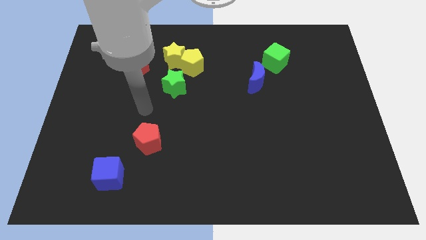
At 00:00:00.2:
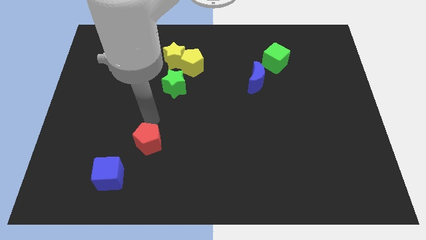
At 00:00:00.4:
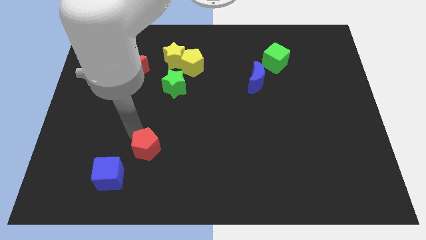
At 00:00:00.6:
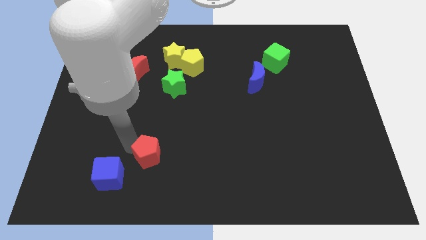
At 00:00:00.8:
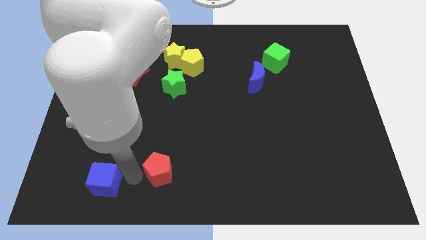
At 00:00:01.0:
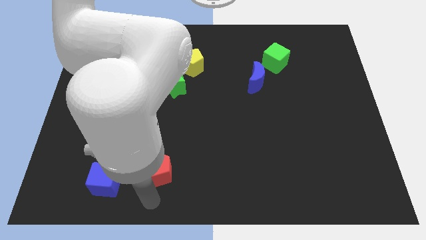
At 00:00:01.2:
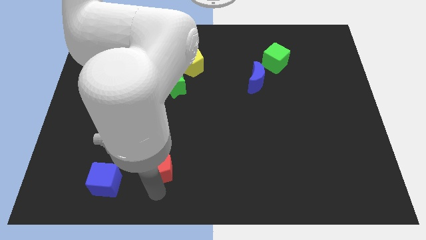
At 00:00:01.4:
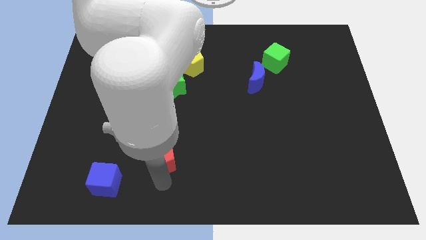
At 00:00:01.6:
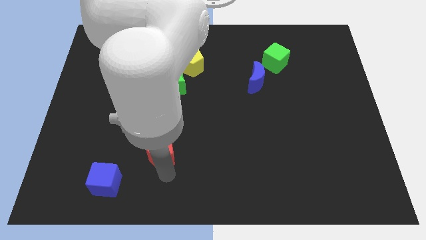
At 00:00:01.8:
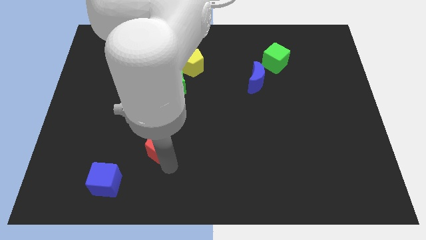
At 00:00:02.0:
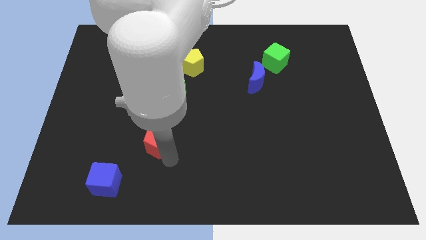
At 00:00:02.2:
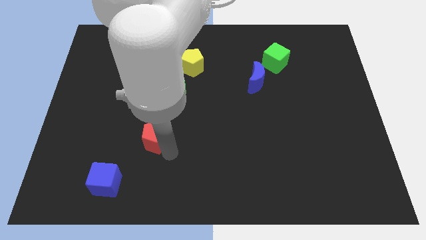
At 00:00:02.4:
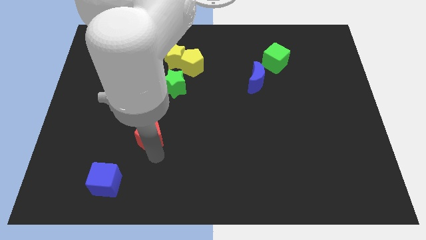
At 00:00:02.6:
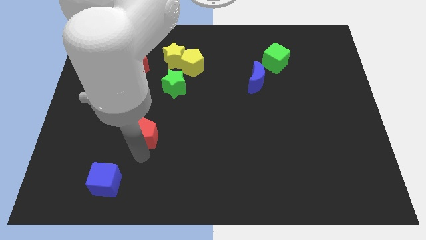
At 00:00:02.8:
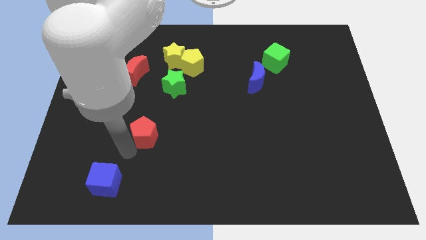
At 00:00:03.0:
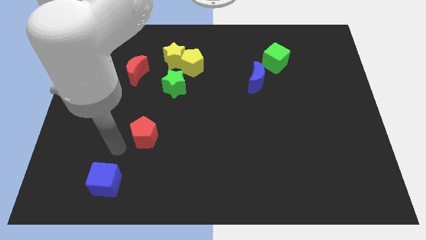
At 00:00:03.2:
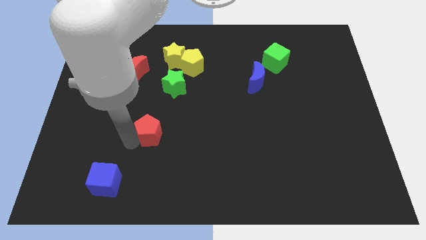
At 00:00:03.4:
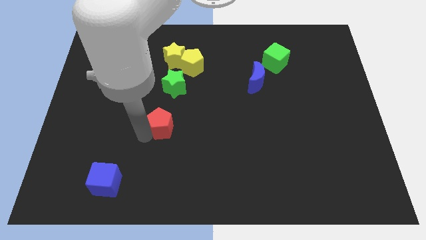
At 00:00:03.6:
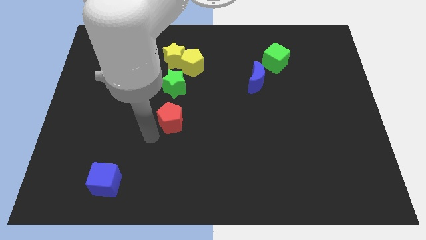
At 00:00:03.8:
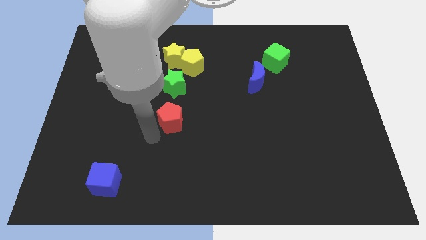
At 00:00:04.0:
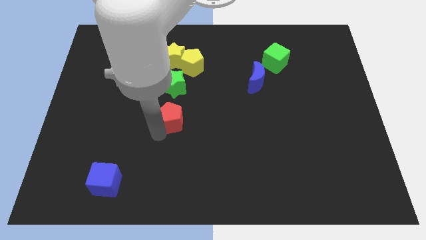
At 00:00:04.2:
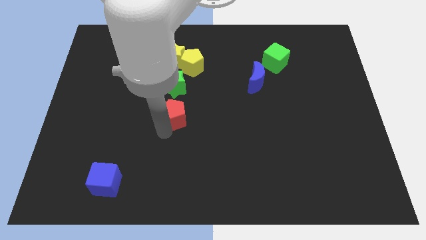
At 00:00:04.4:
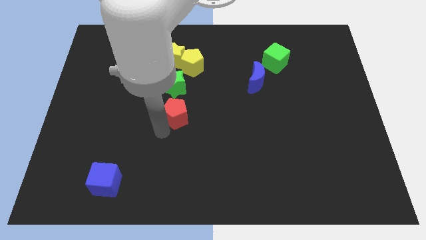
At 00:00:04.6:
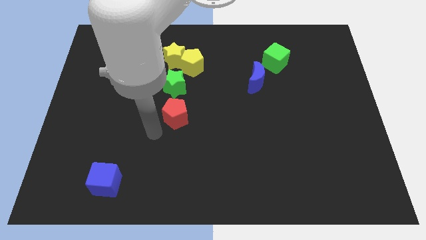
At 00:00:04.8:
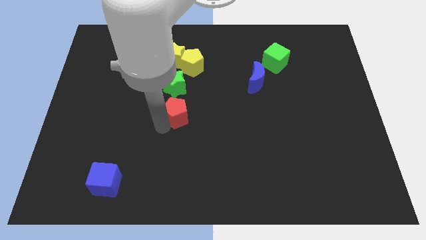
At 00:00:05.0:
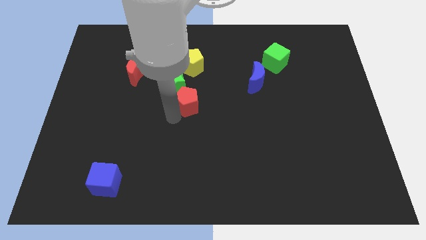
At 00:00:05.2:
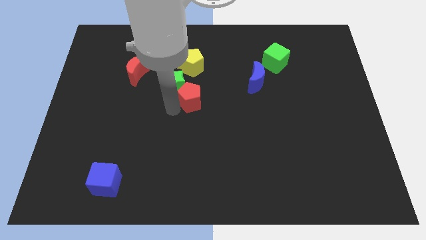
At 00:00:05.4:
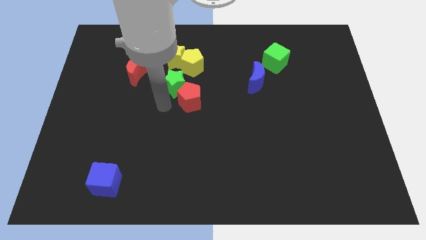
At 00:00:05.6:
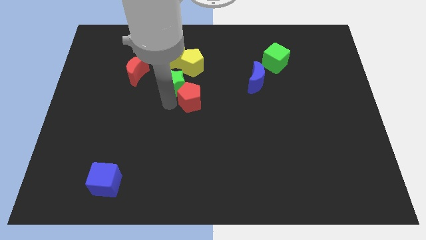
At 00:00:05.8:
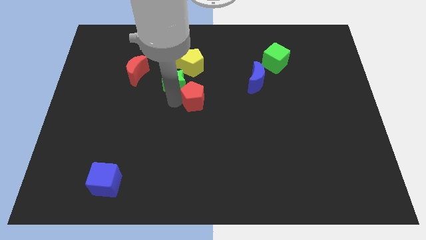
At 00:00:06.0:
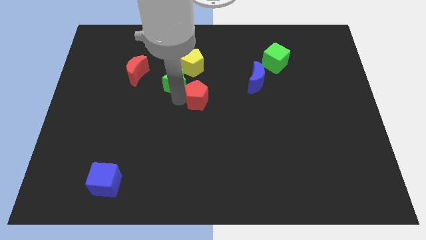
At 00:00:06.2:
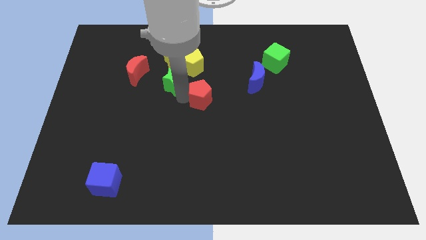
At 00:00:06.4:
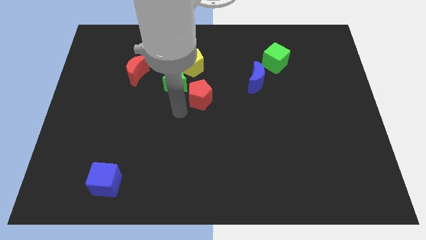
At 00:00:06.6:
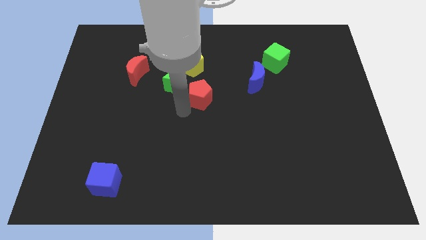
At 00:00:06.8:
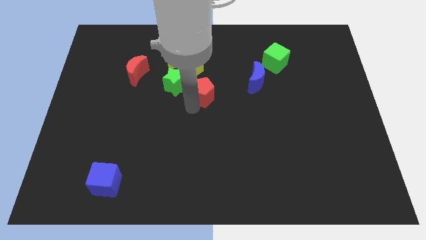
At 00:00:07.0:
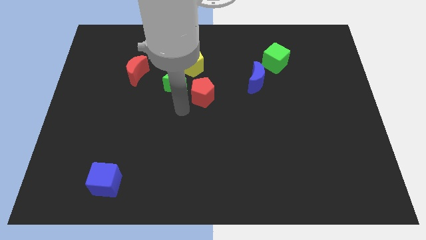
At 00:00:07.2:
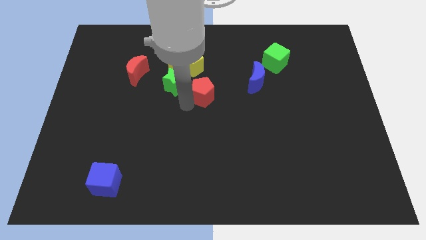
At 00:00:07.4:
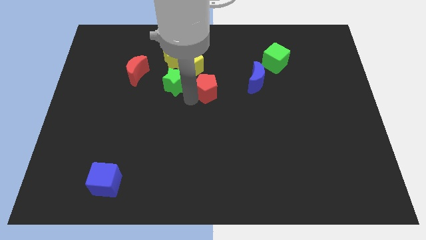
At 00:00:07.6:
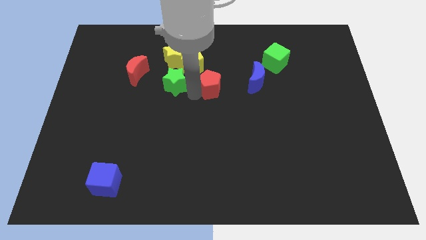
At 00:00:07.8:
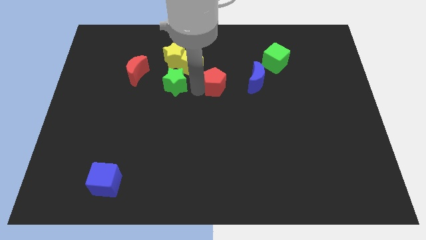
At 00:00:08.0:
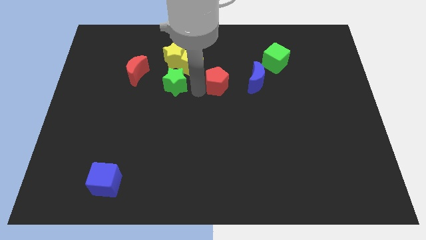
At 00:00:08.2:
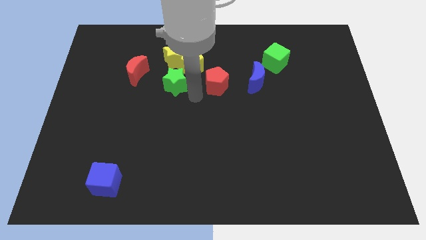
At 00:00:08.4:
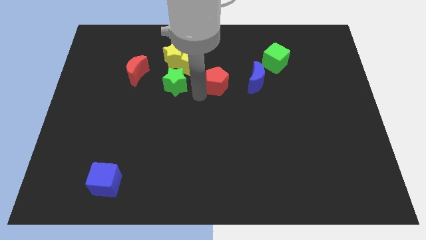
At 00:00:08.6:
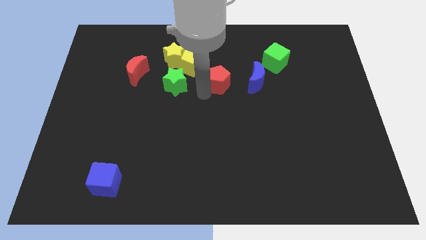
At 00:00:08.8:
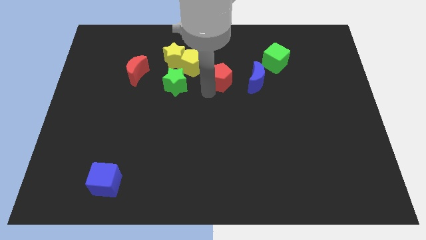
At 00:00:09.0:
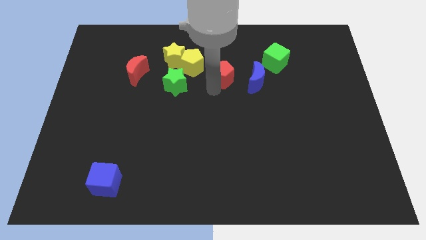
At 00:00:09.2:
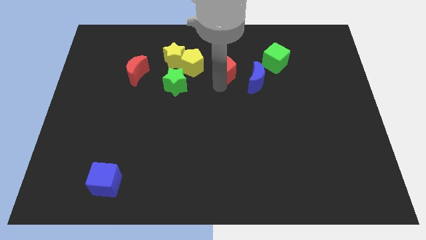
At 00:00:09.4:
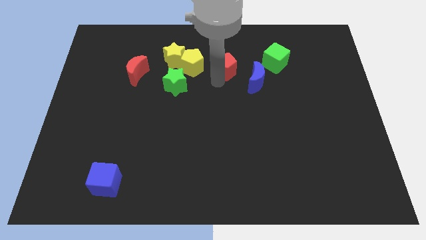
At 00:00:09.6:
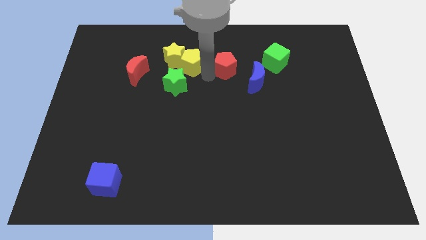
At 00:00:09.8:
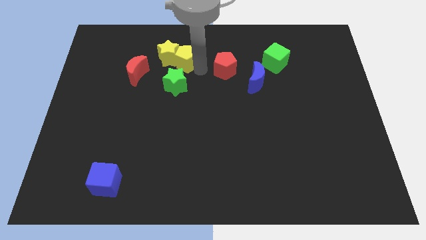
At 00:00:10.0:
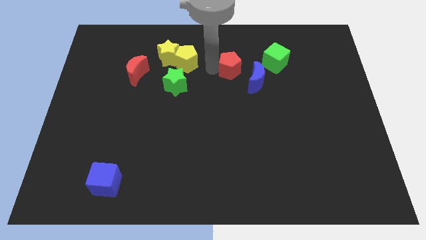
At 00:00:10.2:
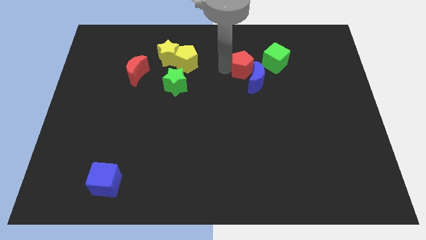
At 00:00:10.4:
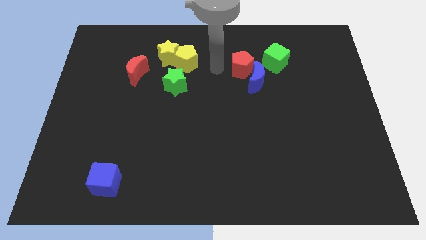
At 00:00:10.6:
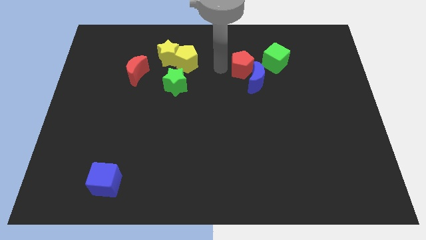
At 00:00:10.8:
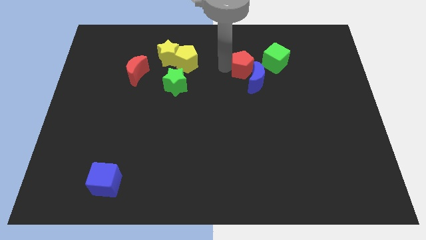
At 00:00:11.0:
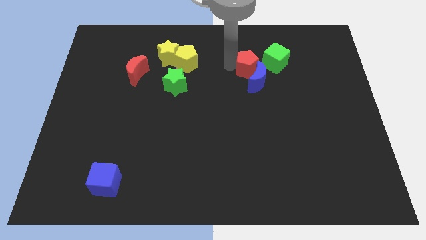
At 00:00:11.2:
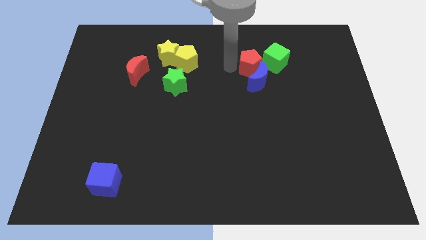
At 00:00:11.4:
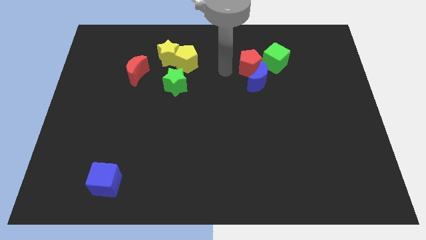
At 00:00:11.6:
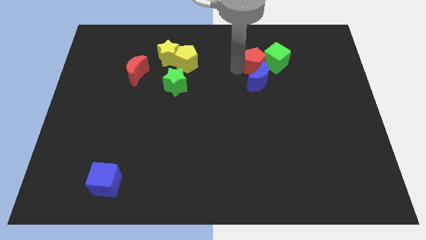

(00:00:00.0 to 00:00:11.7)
move the red pentagon close to the green cube

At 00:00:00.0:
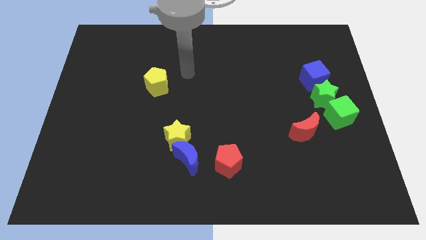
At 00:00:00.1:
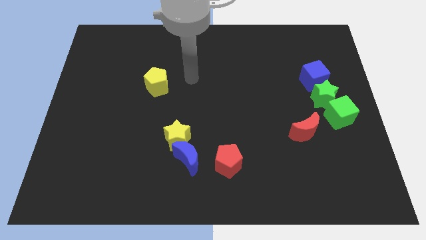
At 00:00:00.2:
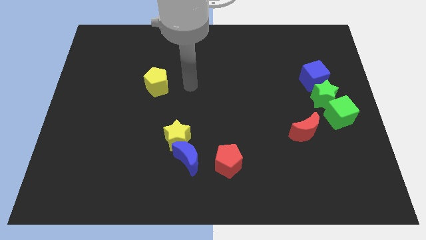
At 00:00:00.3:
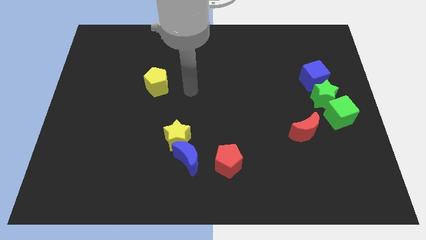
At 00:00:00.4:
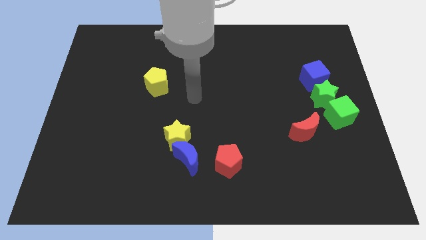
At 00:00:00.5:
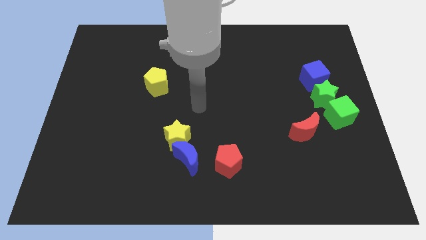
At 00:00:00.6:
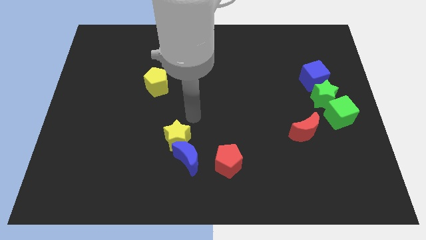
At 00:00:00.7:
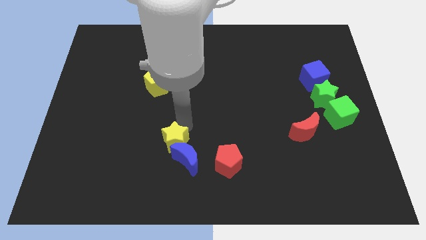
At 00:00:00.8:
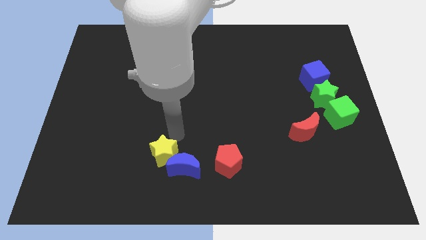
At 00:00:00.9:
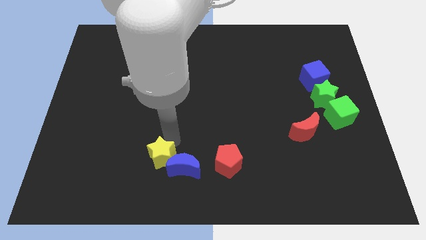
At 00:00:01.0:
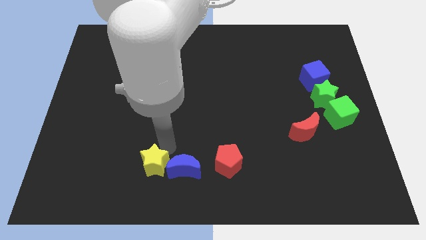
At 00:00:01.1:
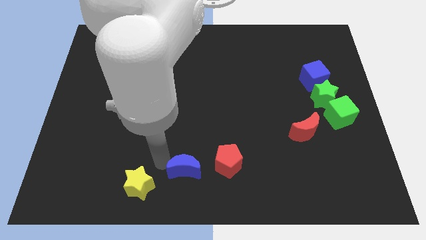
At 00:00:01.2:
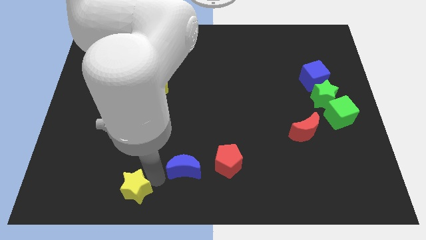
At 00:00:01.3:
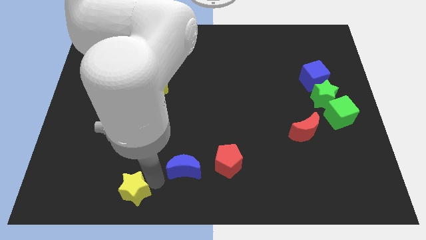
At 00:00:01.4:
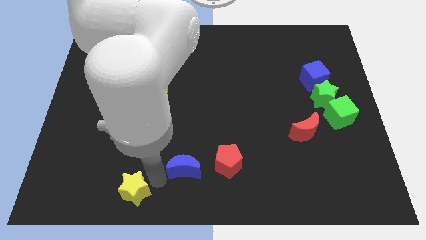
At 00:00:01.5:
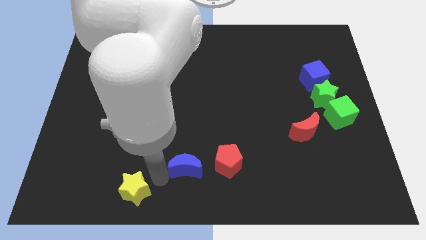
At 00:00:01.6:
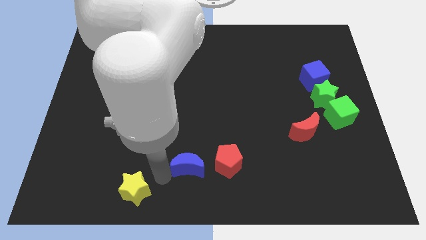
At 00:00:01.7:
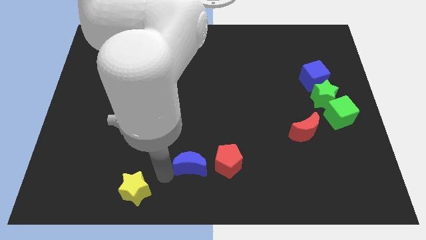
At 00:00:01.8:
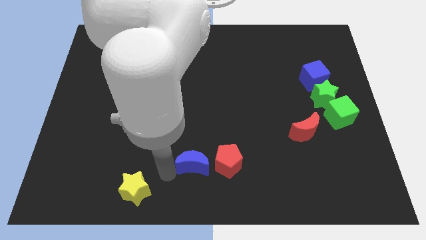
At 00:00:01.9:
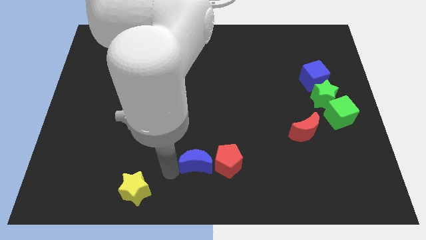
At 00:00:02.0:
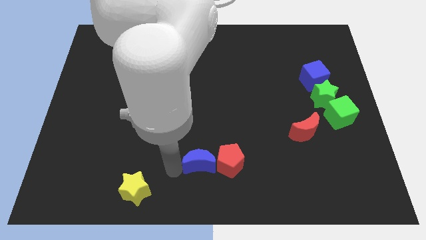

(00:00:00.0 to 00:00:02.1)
move the blue moon to the red pentagon
